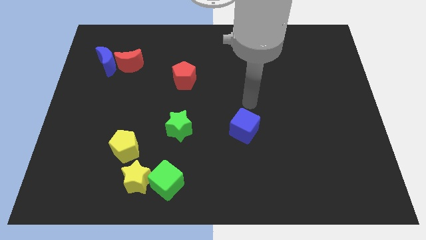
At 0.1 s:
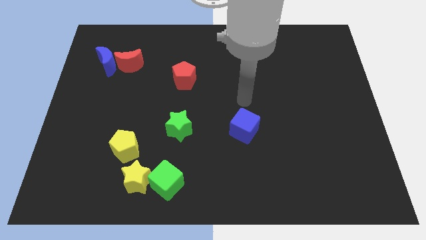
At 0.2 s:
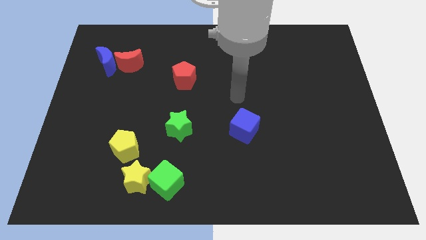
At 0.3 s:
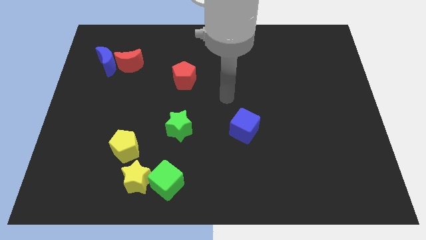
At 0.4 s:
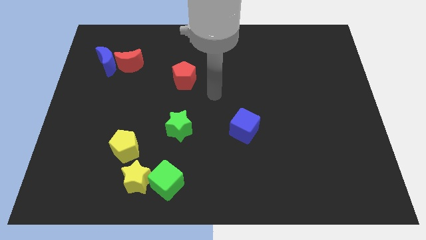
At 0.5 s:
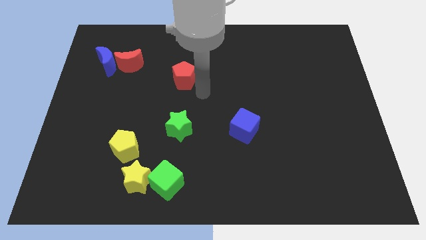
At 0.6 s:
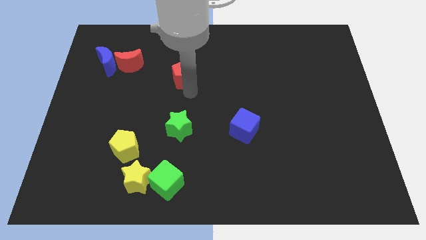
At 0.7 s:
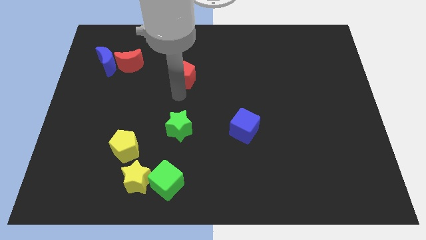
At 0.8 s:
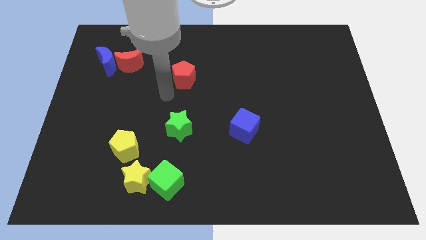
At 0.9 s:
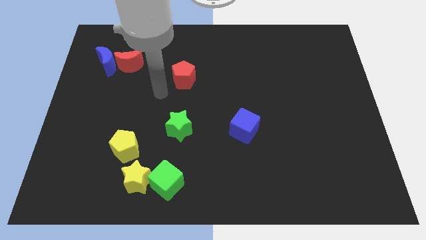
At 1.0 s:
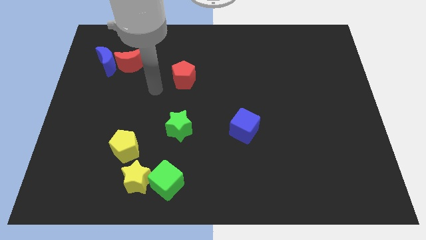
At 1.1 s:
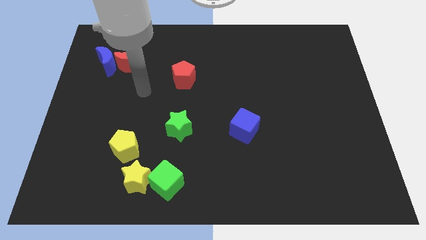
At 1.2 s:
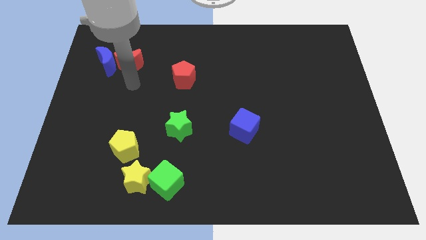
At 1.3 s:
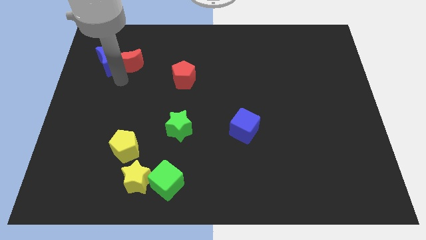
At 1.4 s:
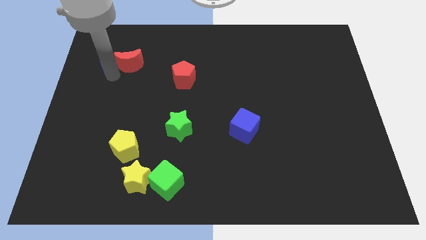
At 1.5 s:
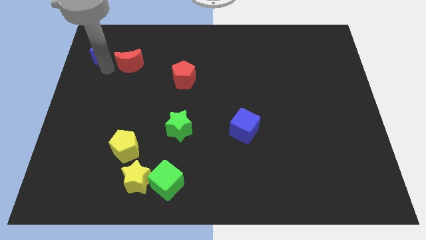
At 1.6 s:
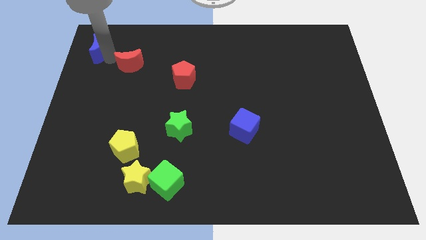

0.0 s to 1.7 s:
move the red moon away from the blue moon

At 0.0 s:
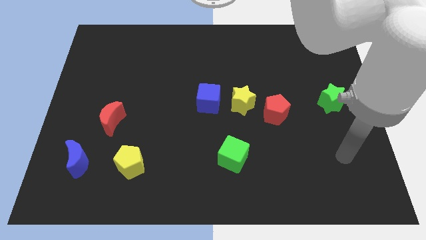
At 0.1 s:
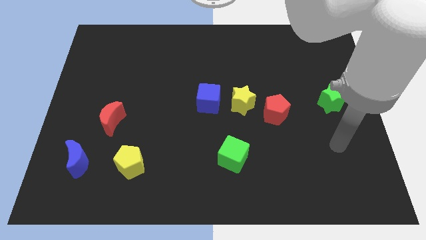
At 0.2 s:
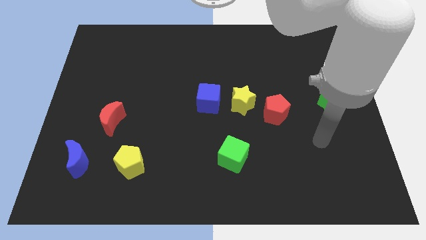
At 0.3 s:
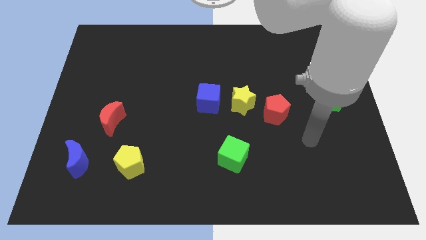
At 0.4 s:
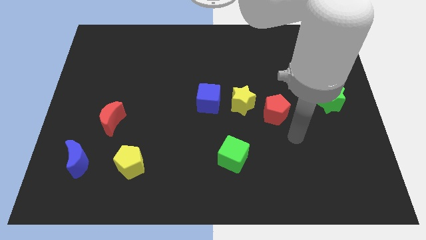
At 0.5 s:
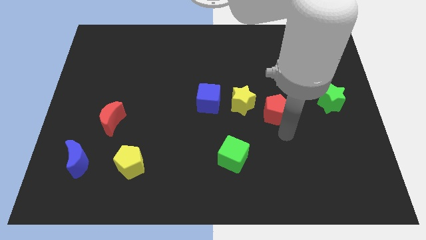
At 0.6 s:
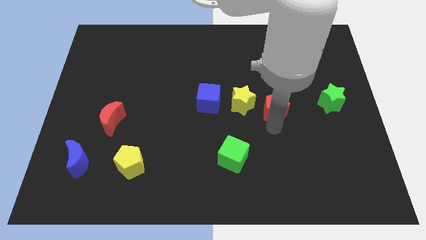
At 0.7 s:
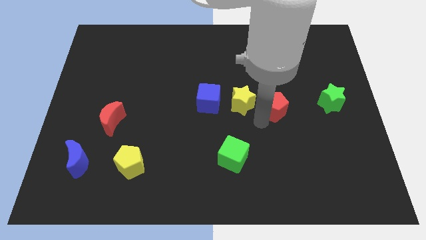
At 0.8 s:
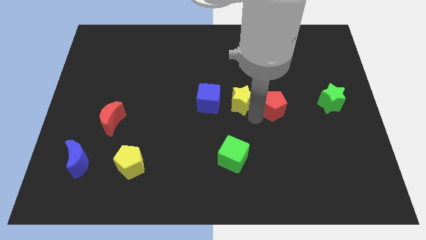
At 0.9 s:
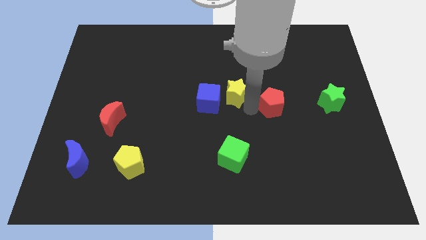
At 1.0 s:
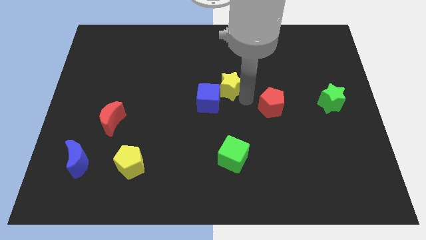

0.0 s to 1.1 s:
move the red pentagon away from the yellow star

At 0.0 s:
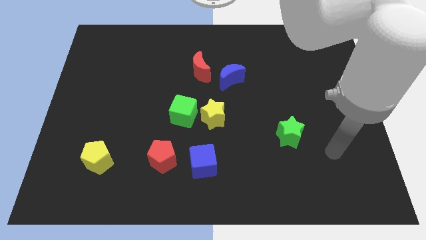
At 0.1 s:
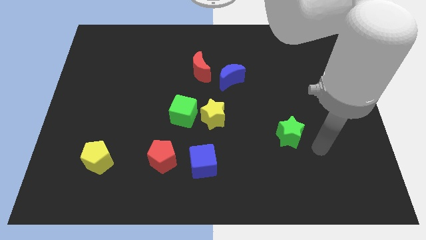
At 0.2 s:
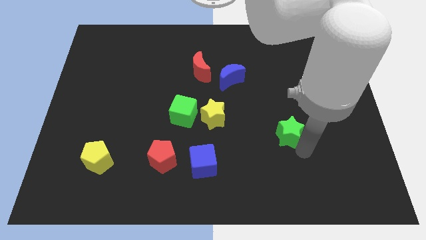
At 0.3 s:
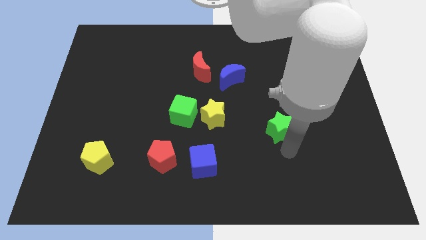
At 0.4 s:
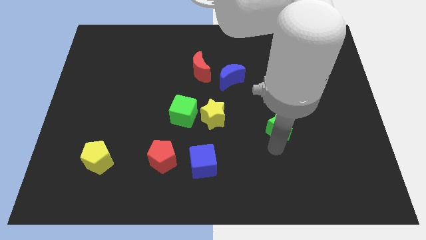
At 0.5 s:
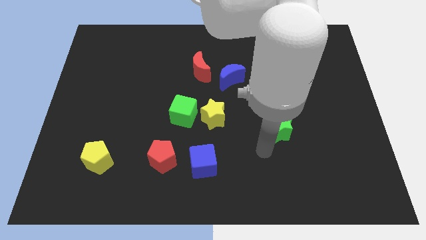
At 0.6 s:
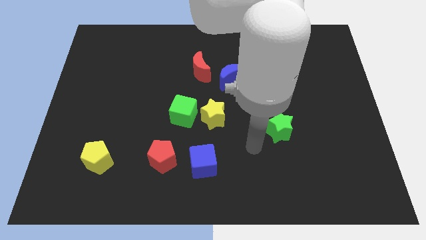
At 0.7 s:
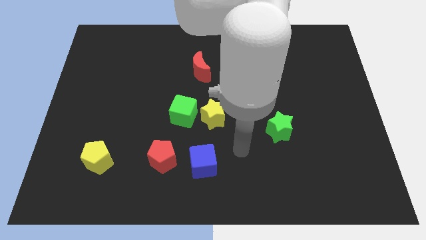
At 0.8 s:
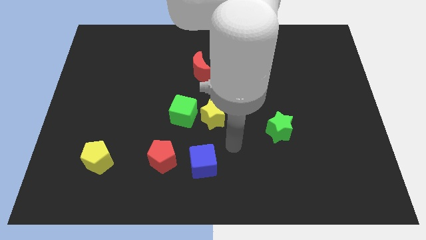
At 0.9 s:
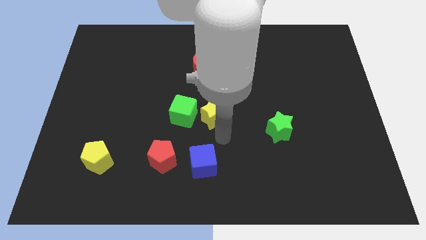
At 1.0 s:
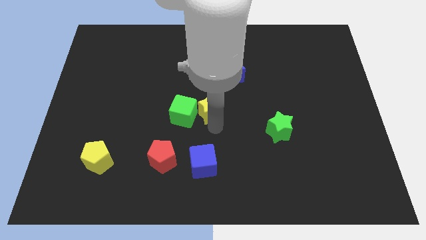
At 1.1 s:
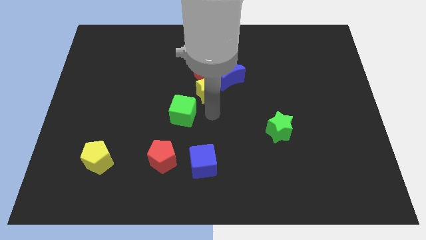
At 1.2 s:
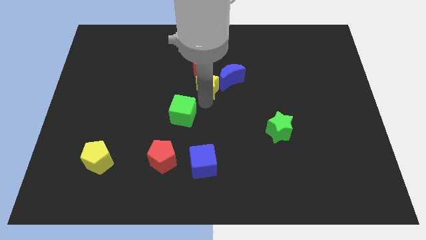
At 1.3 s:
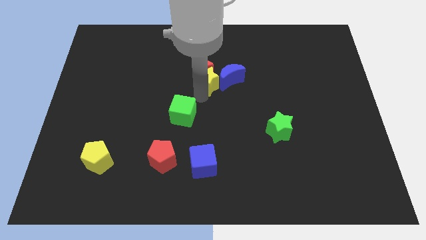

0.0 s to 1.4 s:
move the green cube away from the yellow star

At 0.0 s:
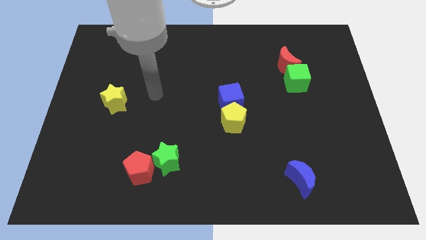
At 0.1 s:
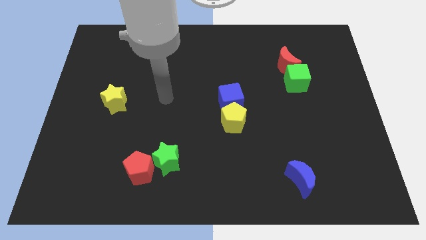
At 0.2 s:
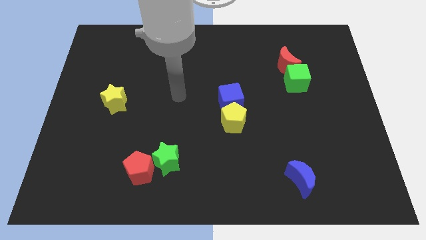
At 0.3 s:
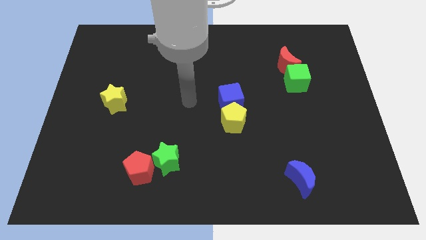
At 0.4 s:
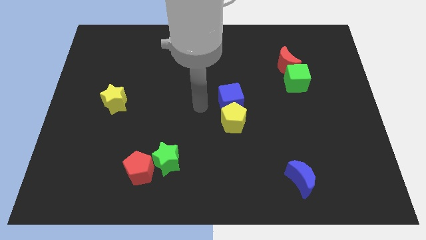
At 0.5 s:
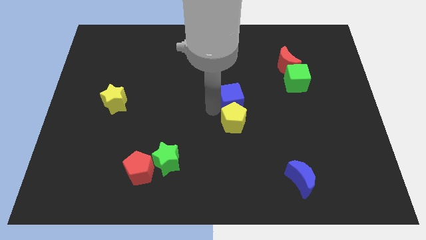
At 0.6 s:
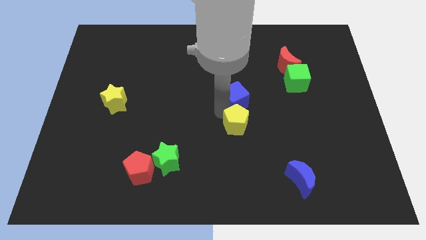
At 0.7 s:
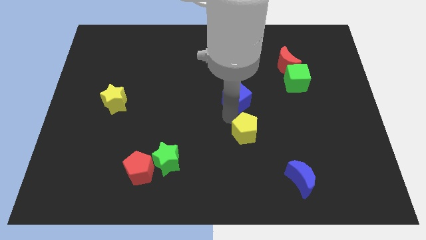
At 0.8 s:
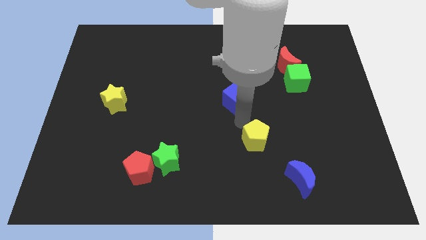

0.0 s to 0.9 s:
move the blue cube away from the yellow pentagon

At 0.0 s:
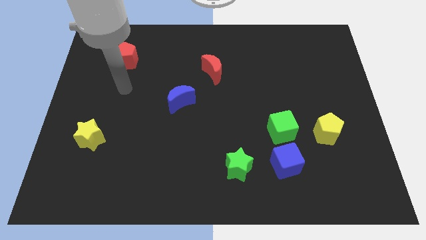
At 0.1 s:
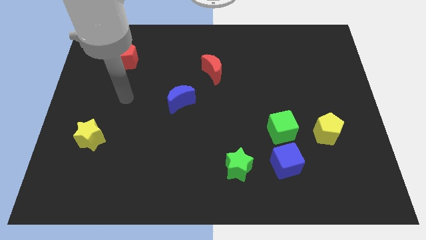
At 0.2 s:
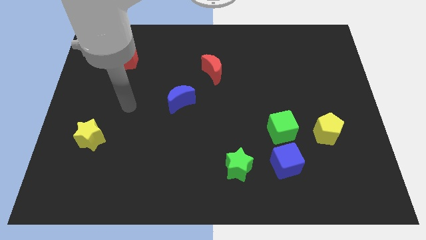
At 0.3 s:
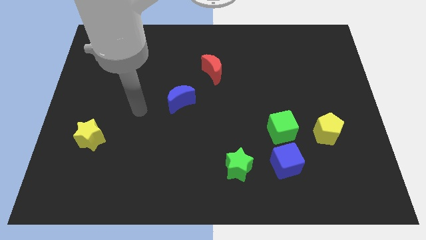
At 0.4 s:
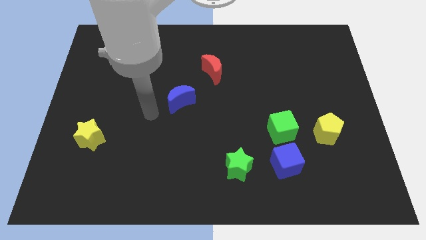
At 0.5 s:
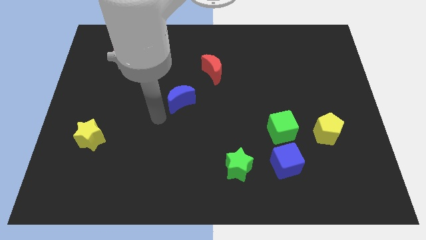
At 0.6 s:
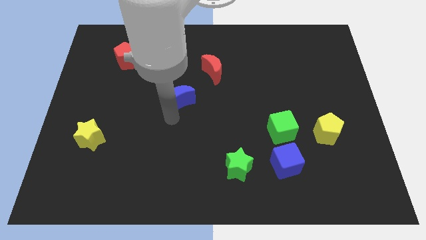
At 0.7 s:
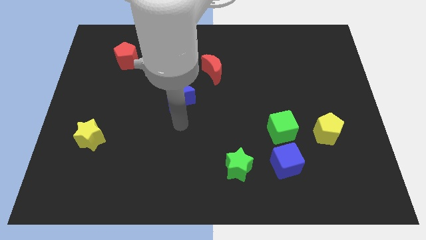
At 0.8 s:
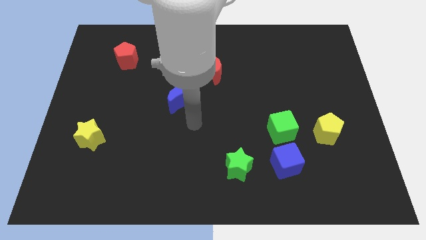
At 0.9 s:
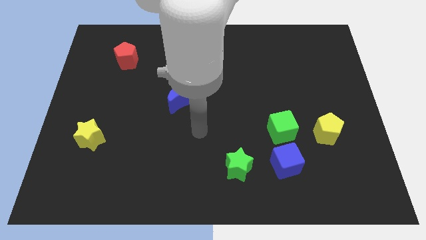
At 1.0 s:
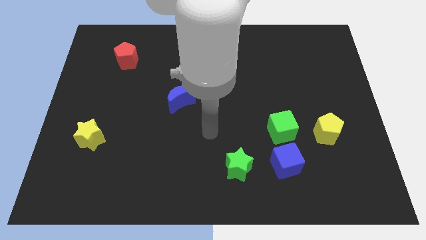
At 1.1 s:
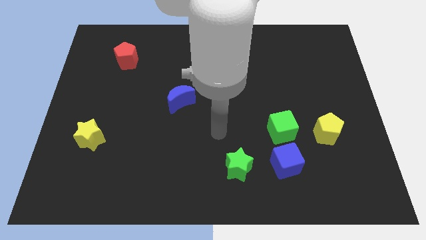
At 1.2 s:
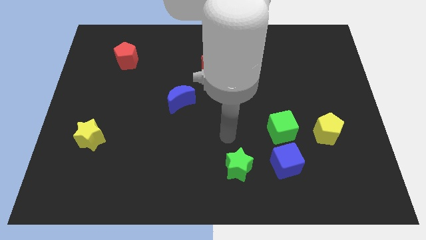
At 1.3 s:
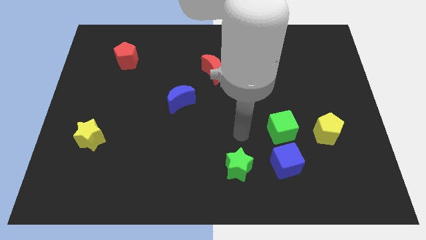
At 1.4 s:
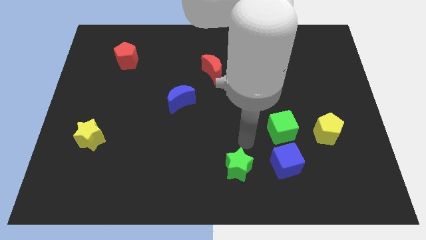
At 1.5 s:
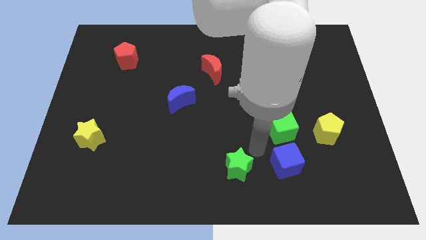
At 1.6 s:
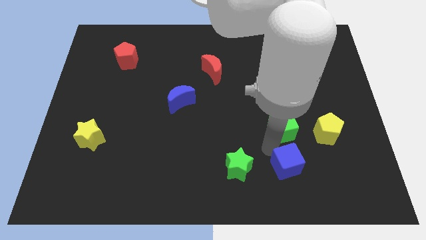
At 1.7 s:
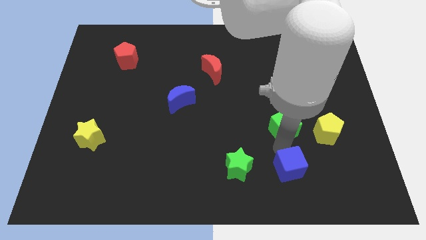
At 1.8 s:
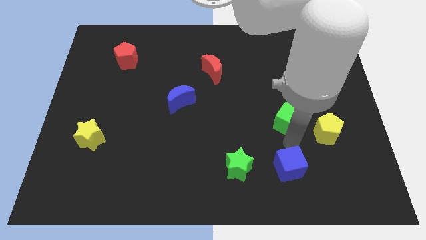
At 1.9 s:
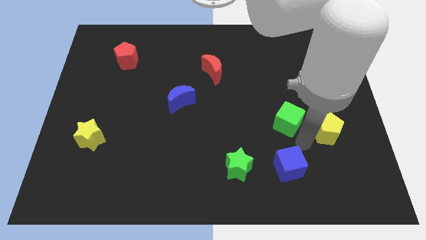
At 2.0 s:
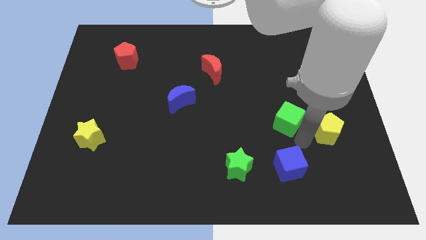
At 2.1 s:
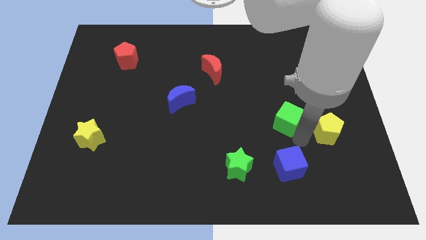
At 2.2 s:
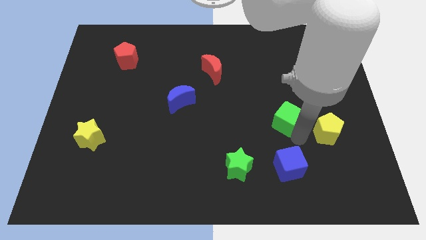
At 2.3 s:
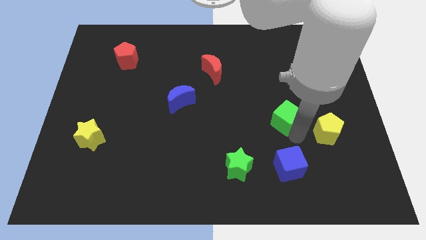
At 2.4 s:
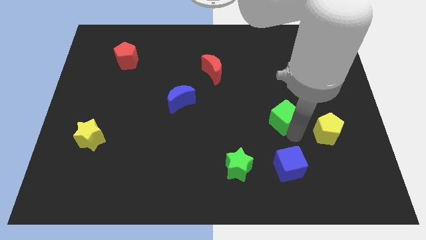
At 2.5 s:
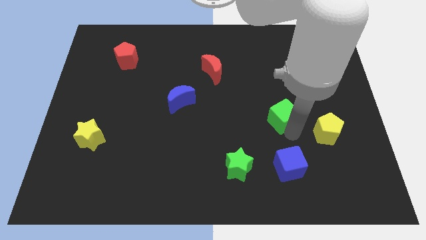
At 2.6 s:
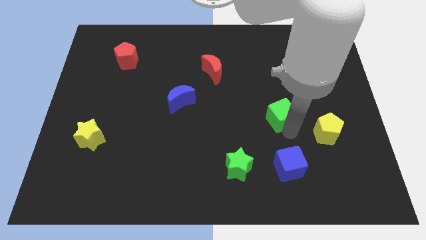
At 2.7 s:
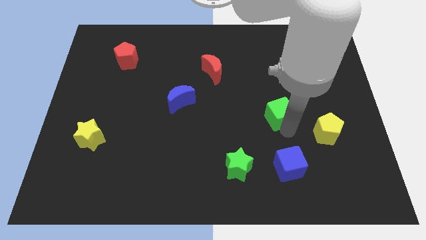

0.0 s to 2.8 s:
separate the green cube from the blue cube and yellow pentagon

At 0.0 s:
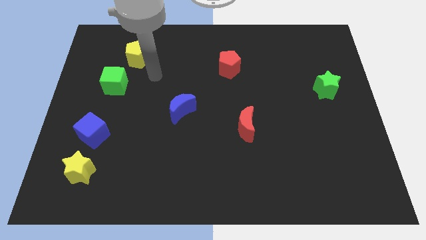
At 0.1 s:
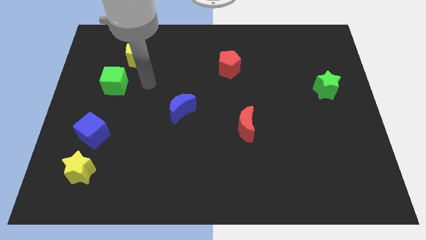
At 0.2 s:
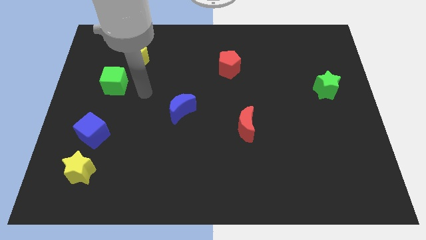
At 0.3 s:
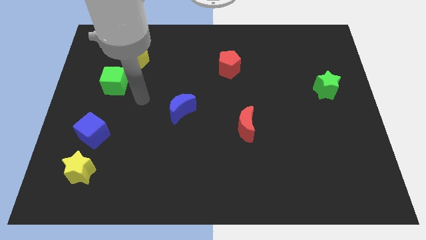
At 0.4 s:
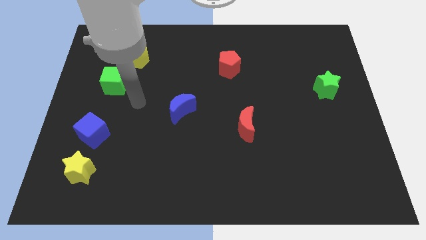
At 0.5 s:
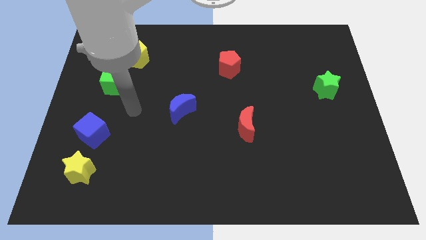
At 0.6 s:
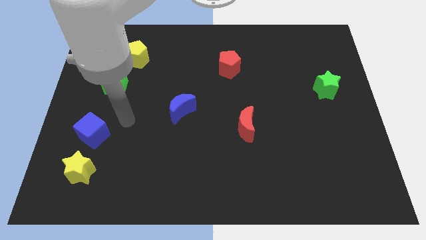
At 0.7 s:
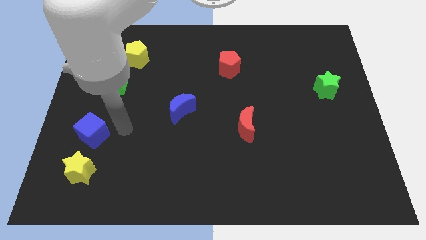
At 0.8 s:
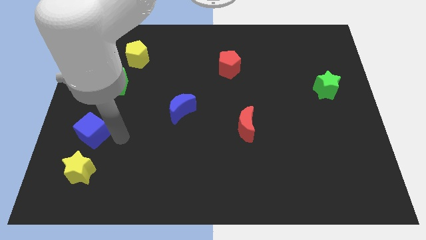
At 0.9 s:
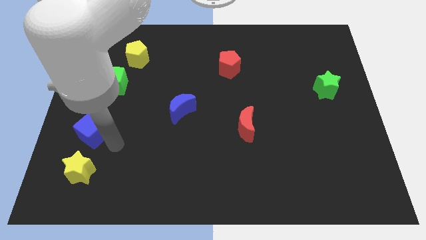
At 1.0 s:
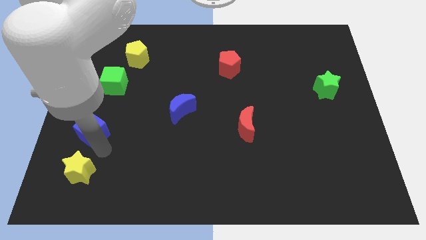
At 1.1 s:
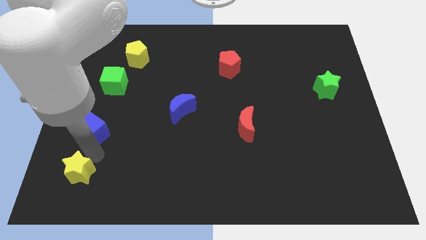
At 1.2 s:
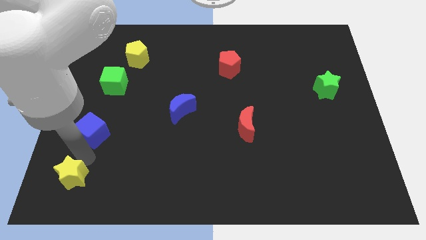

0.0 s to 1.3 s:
separate the blue cube from the yellow star

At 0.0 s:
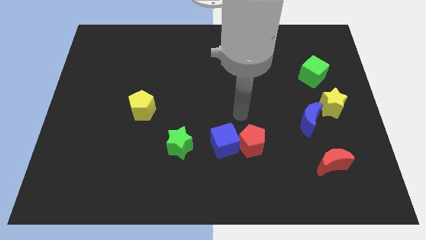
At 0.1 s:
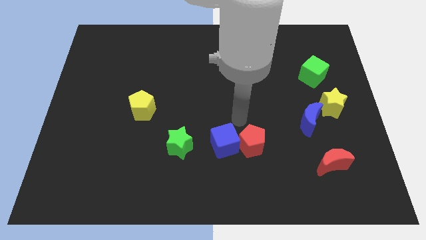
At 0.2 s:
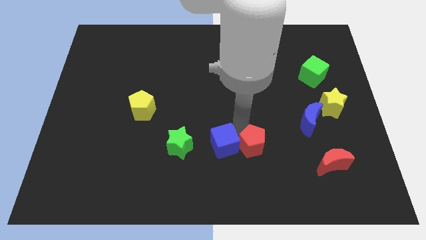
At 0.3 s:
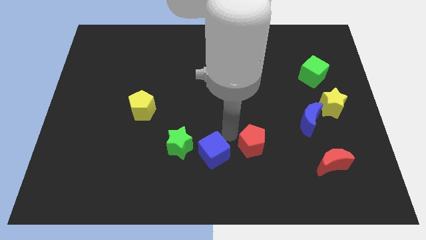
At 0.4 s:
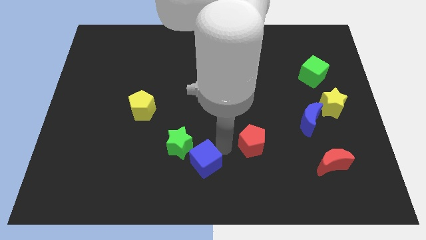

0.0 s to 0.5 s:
separate the red pentagon from the blue cube
